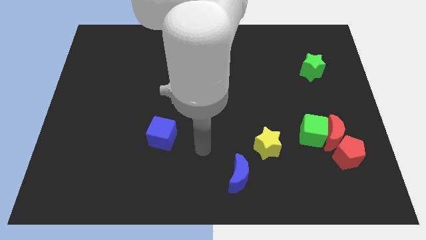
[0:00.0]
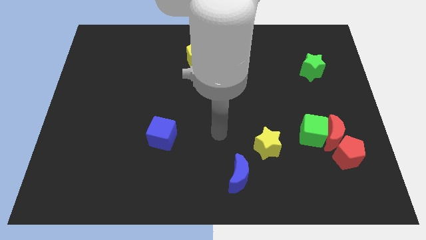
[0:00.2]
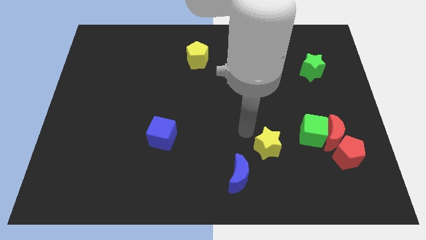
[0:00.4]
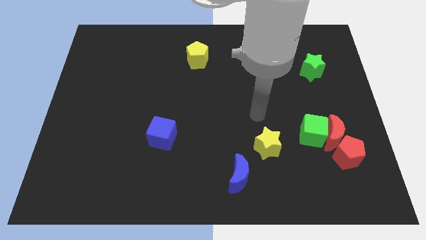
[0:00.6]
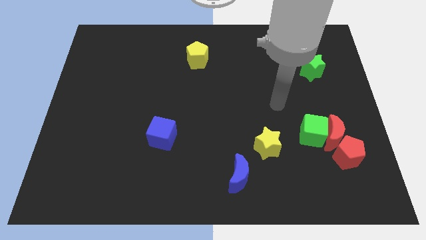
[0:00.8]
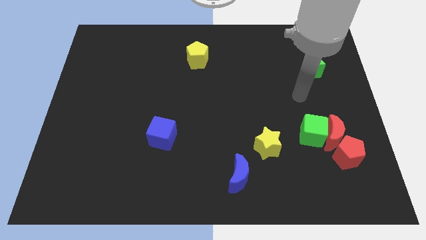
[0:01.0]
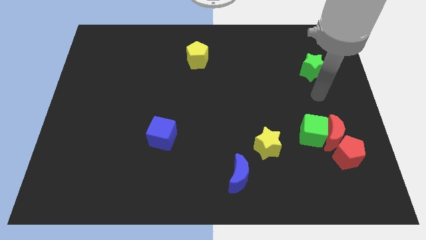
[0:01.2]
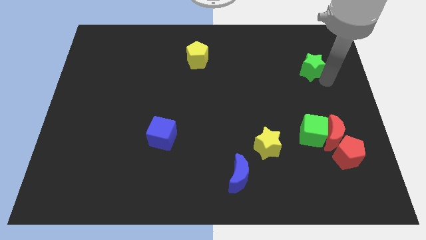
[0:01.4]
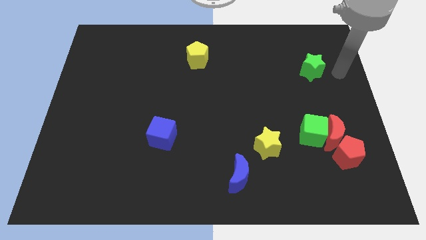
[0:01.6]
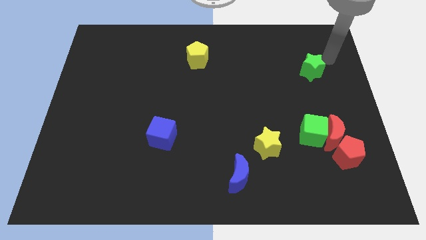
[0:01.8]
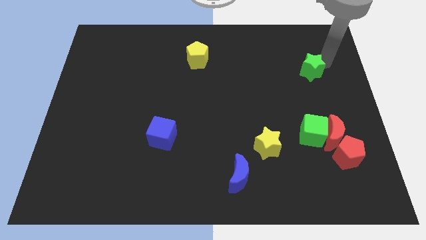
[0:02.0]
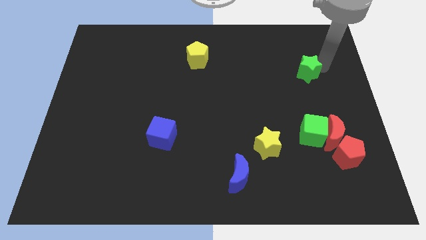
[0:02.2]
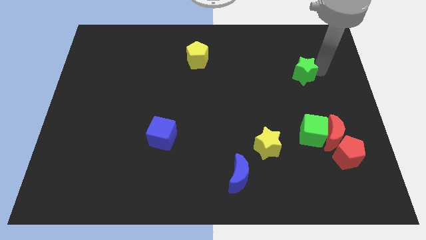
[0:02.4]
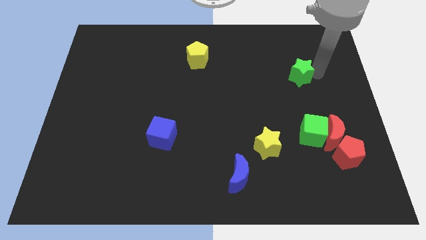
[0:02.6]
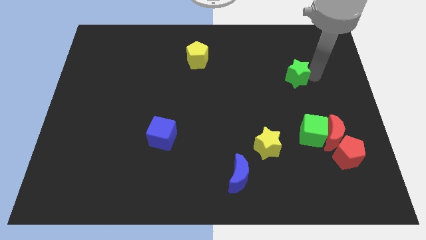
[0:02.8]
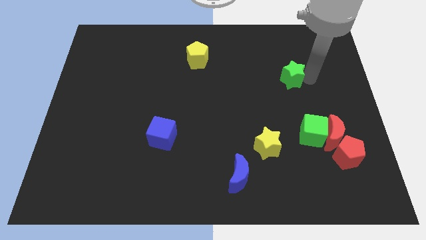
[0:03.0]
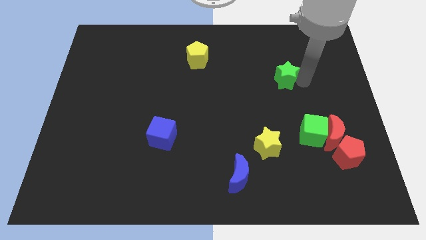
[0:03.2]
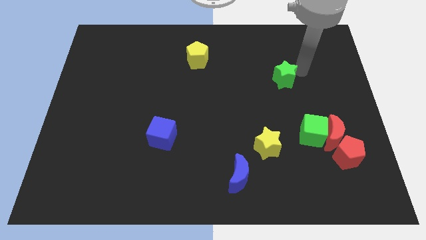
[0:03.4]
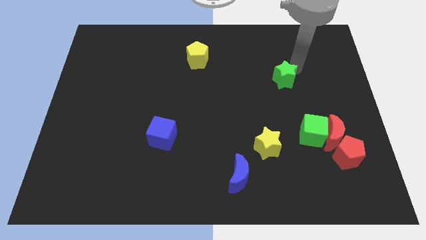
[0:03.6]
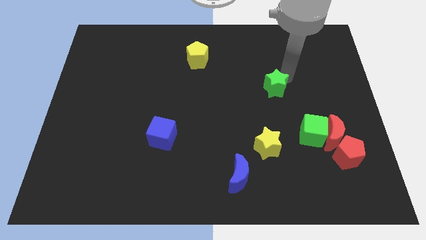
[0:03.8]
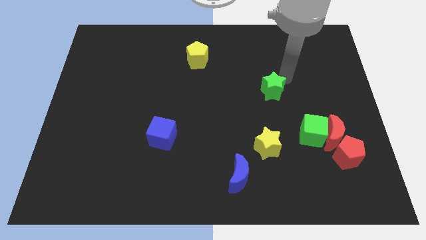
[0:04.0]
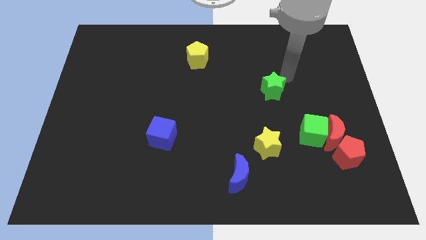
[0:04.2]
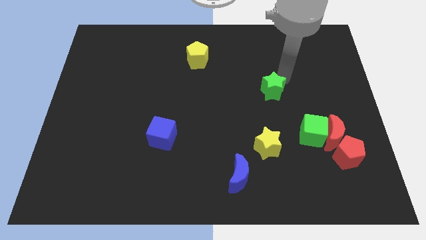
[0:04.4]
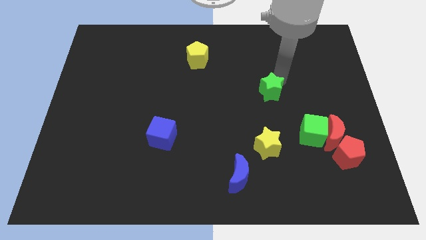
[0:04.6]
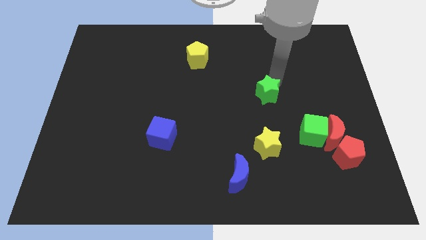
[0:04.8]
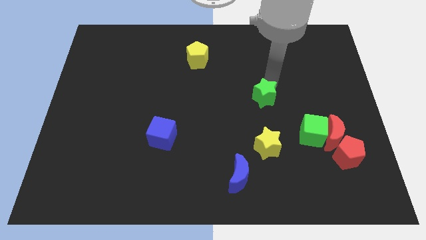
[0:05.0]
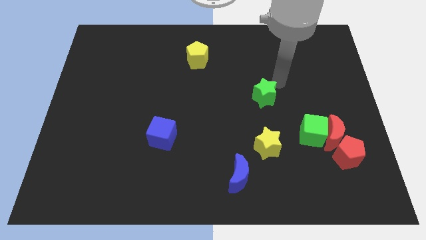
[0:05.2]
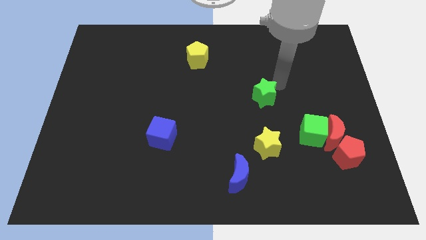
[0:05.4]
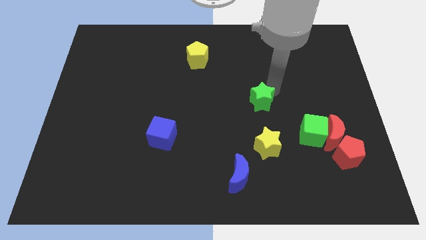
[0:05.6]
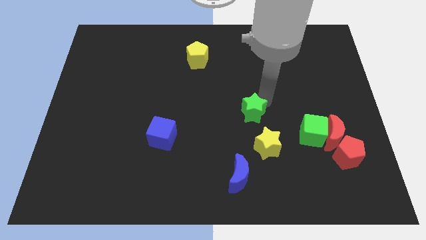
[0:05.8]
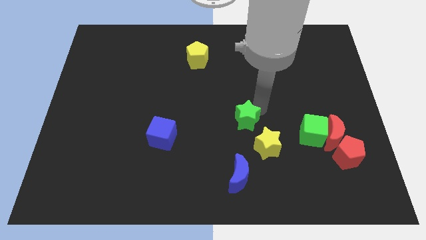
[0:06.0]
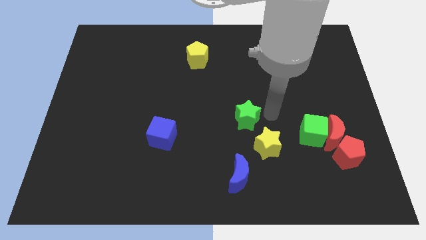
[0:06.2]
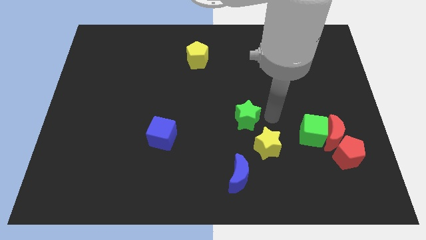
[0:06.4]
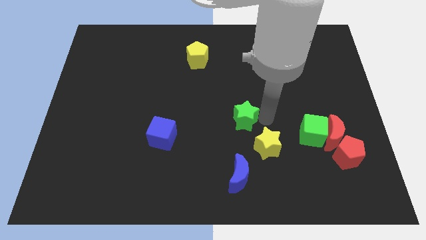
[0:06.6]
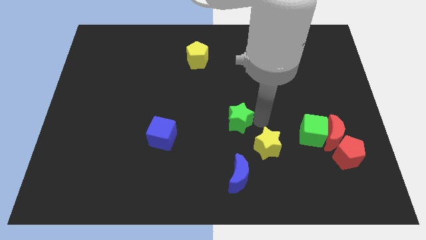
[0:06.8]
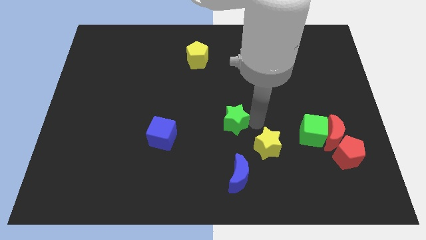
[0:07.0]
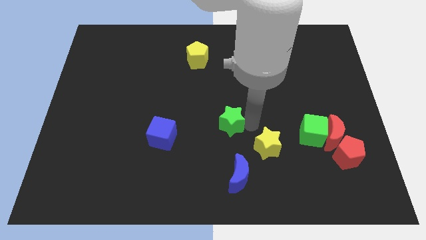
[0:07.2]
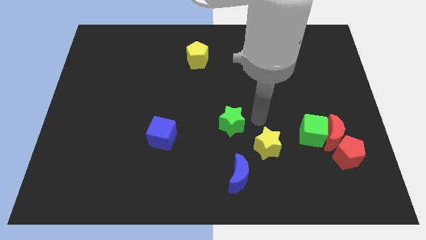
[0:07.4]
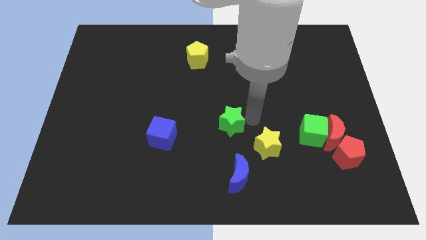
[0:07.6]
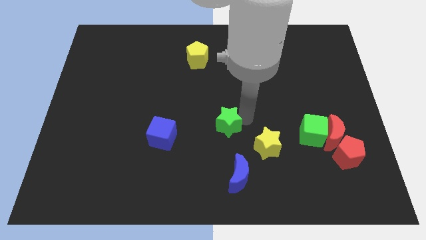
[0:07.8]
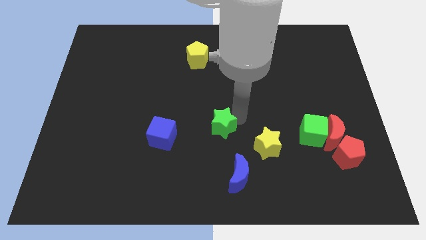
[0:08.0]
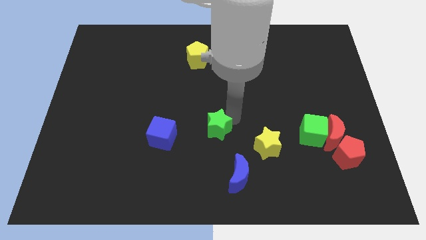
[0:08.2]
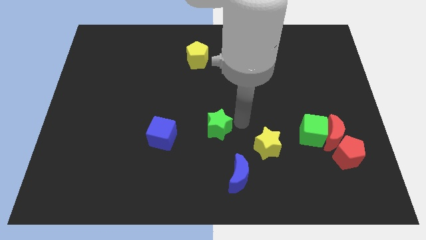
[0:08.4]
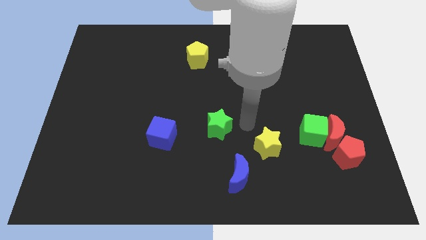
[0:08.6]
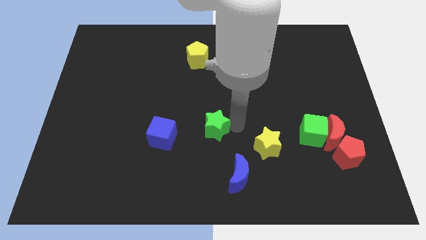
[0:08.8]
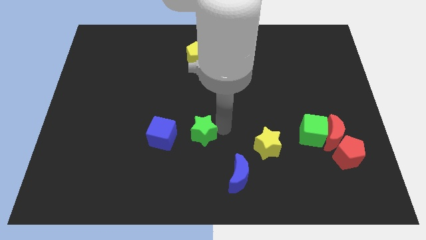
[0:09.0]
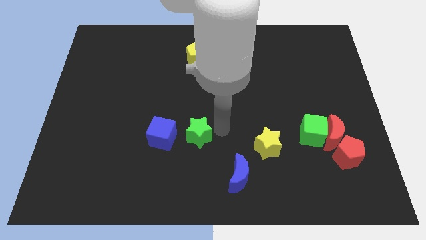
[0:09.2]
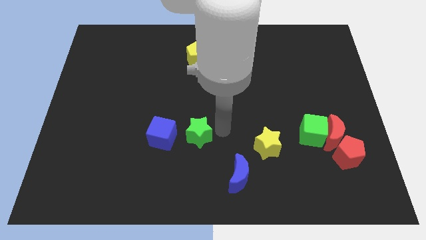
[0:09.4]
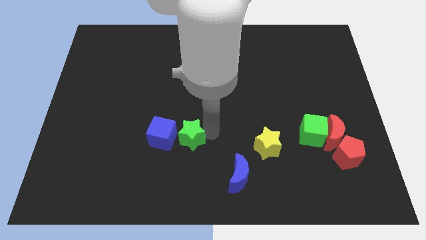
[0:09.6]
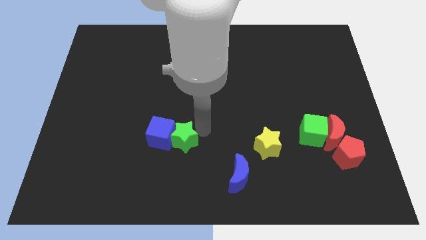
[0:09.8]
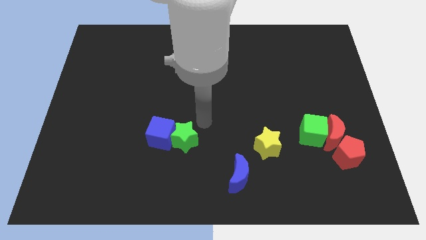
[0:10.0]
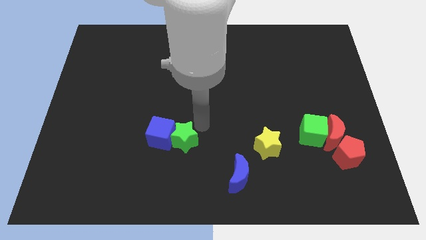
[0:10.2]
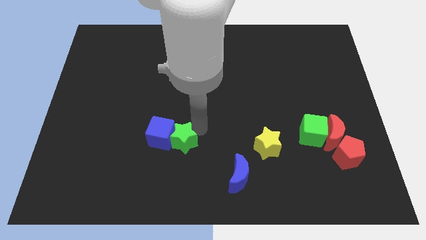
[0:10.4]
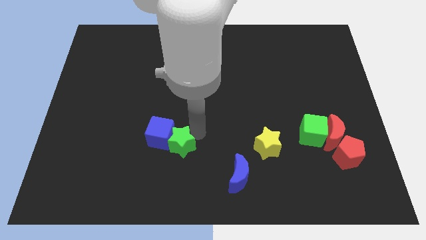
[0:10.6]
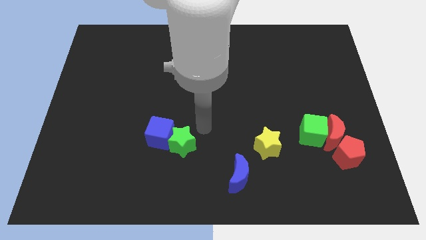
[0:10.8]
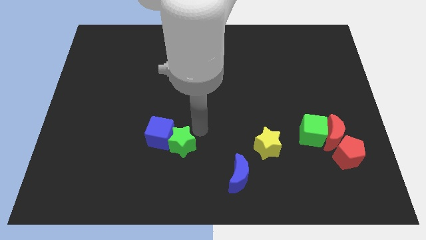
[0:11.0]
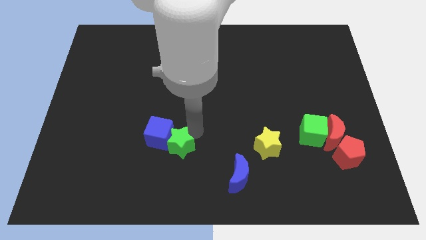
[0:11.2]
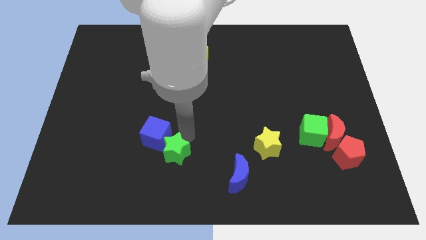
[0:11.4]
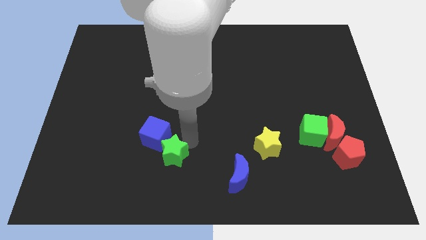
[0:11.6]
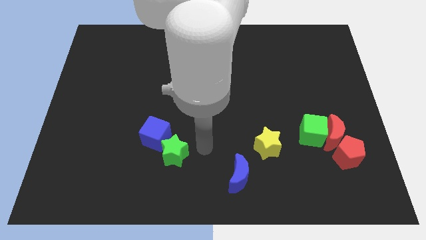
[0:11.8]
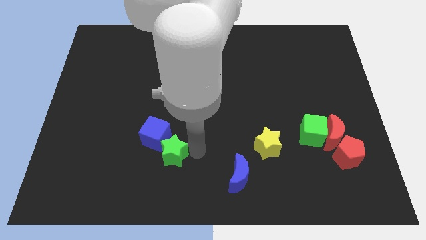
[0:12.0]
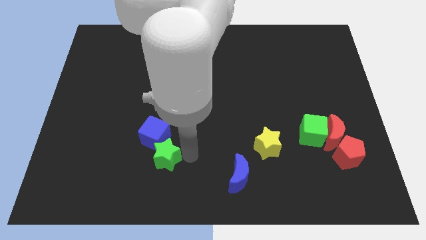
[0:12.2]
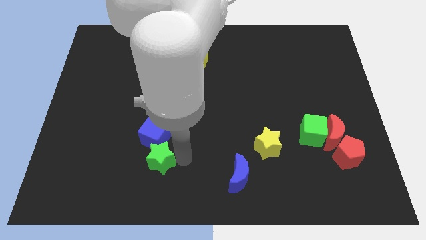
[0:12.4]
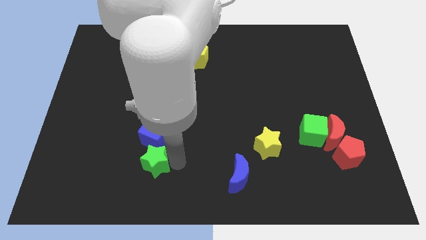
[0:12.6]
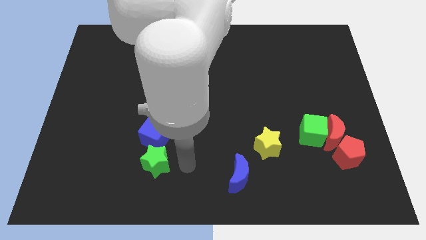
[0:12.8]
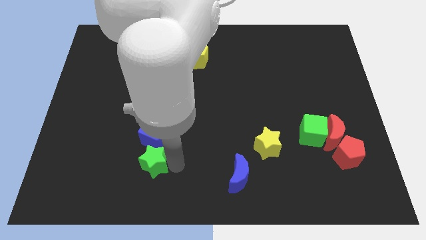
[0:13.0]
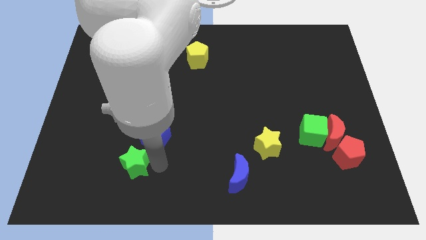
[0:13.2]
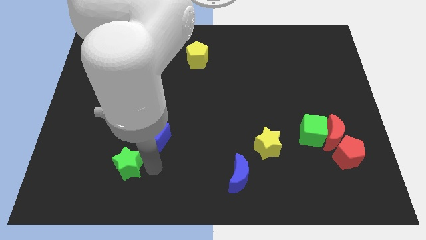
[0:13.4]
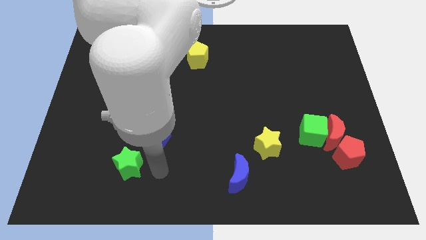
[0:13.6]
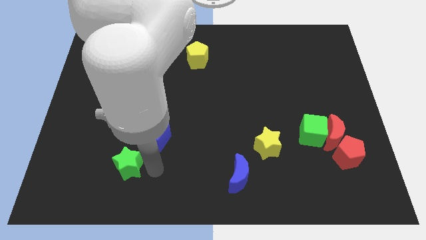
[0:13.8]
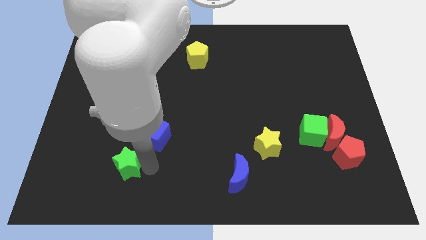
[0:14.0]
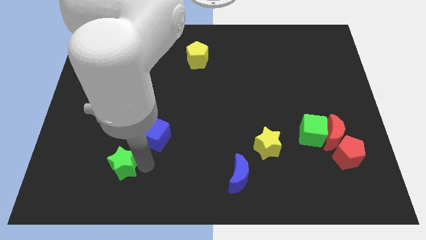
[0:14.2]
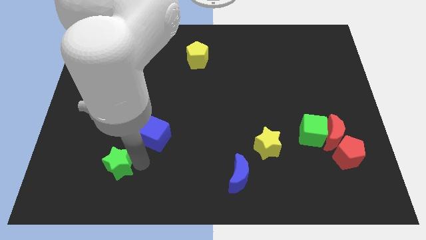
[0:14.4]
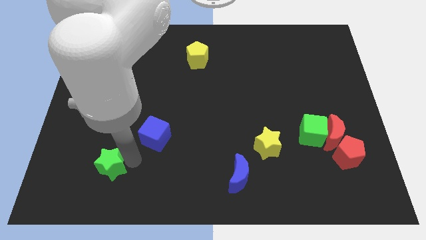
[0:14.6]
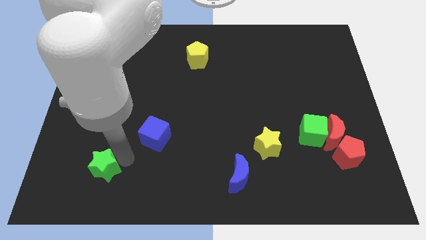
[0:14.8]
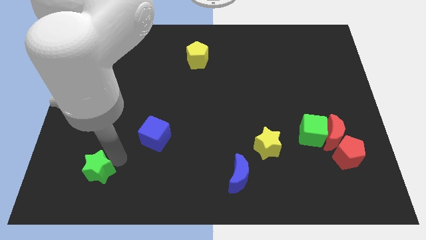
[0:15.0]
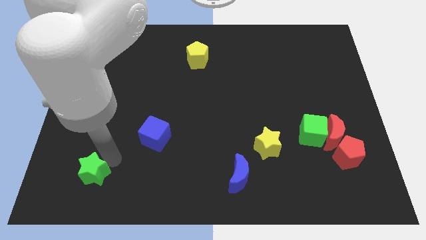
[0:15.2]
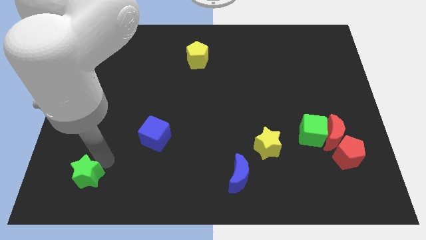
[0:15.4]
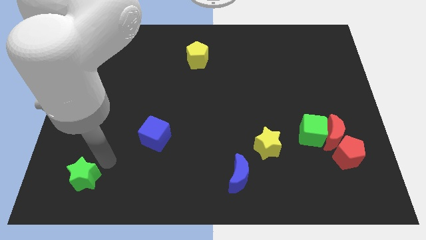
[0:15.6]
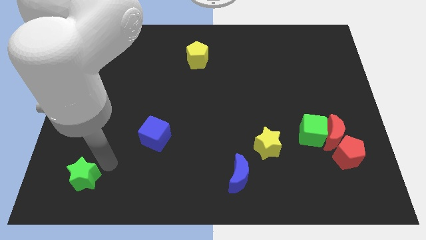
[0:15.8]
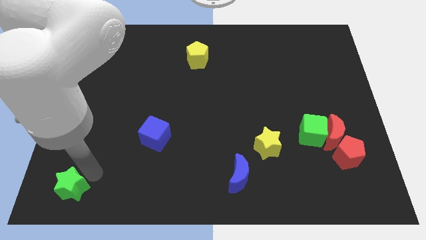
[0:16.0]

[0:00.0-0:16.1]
put the green star to the bottom left corner
